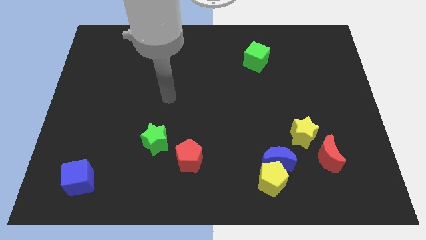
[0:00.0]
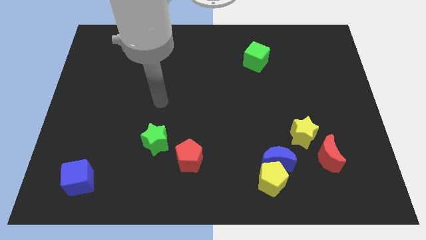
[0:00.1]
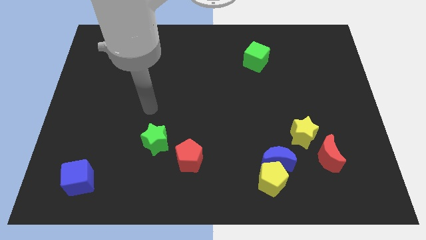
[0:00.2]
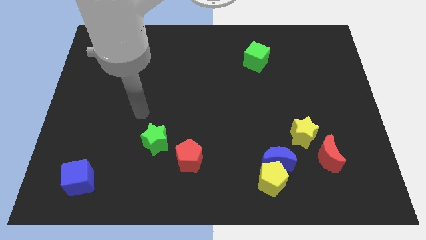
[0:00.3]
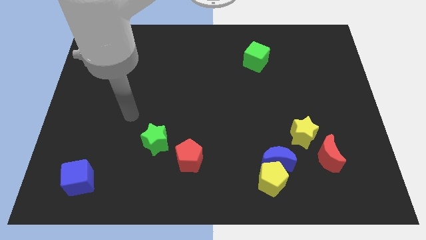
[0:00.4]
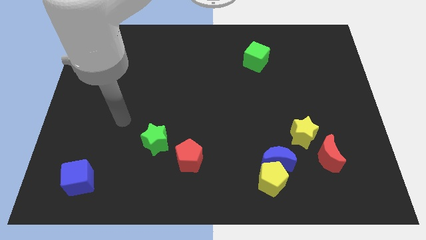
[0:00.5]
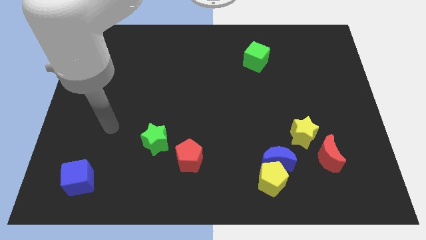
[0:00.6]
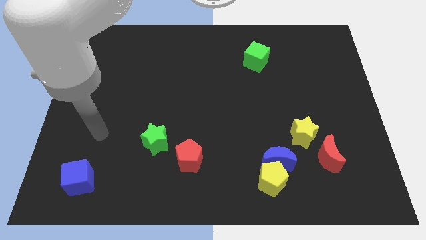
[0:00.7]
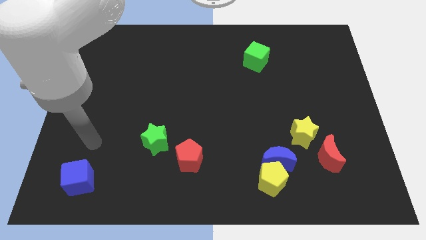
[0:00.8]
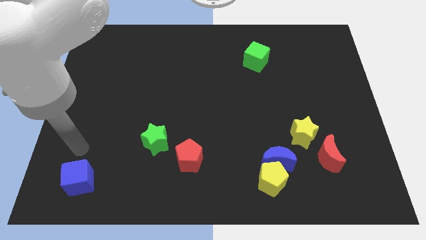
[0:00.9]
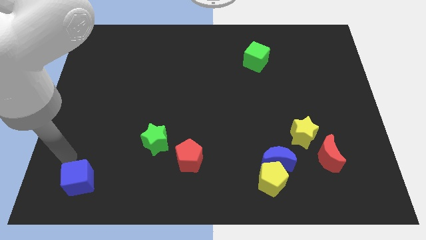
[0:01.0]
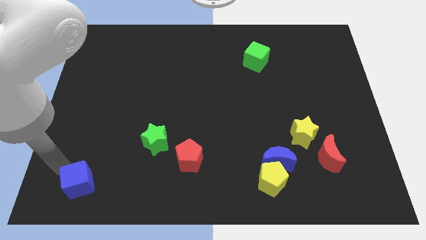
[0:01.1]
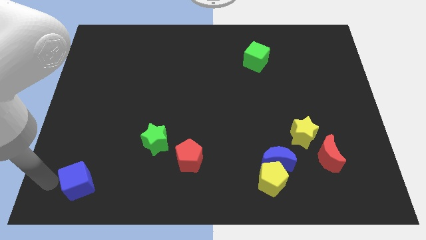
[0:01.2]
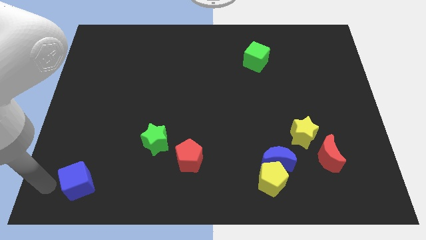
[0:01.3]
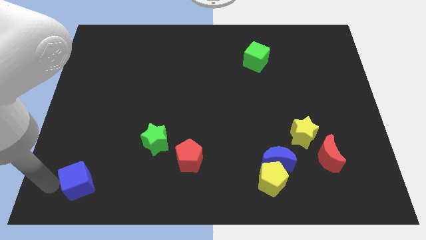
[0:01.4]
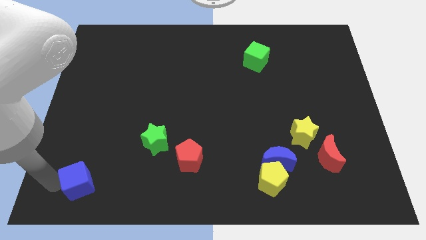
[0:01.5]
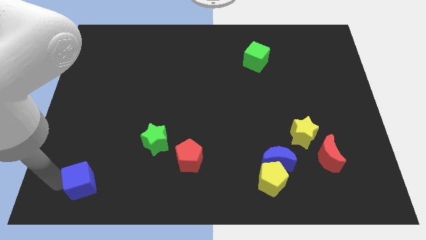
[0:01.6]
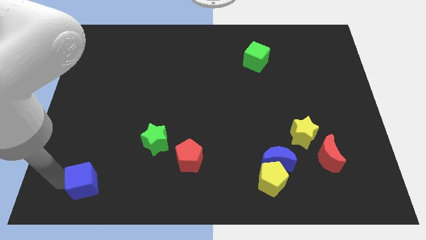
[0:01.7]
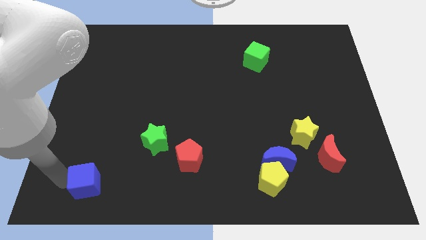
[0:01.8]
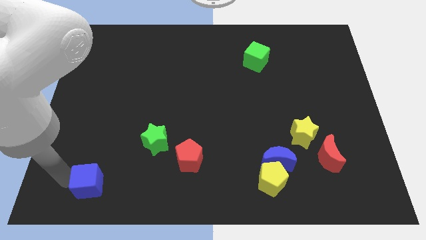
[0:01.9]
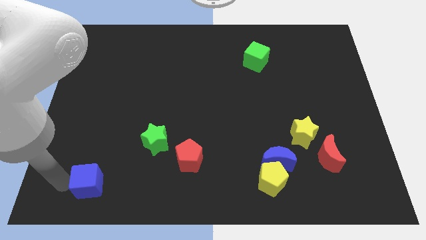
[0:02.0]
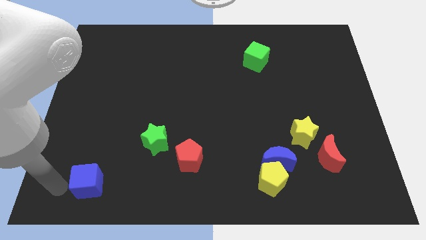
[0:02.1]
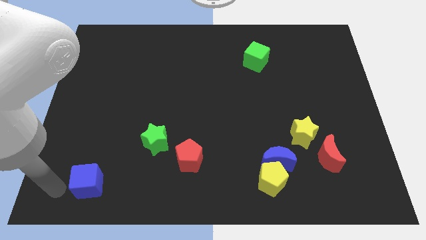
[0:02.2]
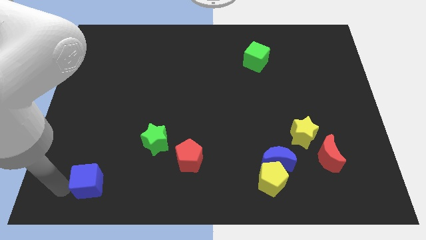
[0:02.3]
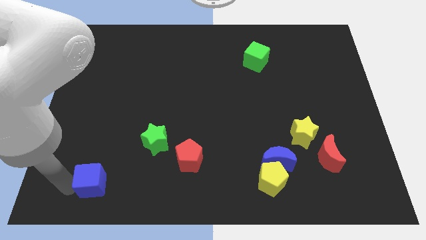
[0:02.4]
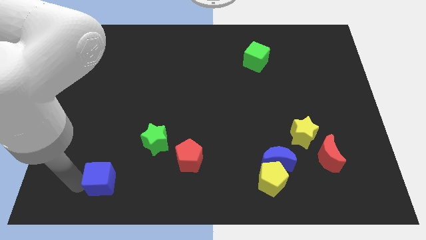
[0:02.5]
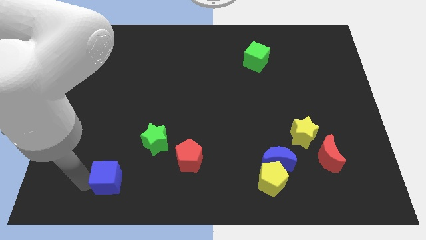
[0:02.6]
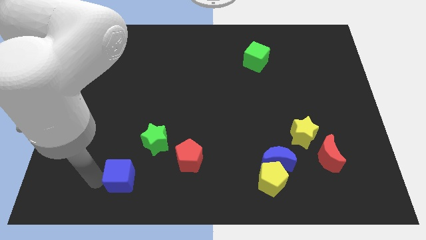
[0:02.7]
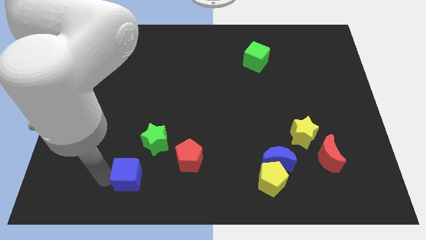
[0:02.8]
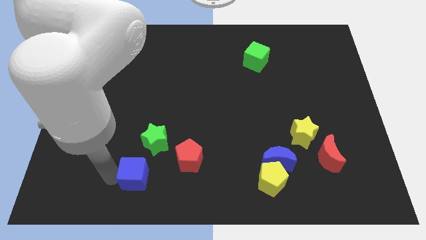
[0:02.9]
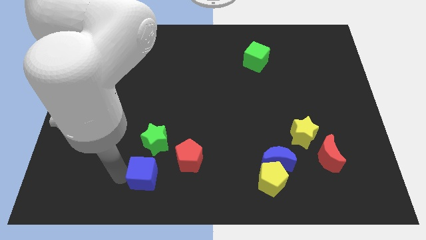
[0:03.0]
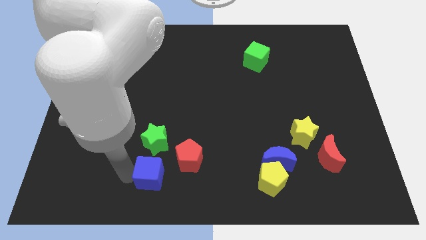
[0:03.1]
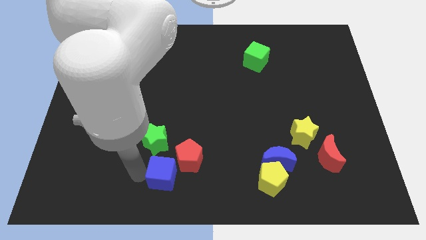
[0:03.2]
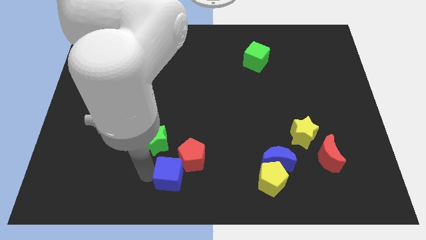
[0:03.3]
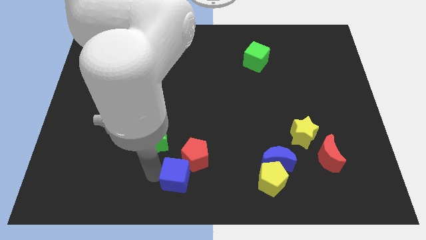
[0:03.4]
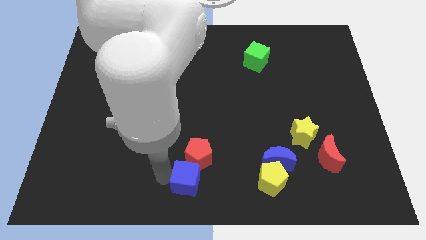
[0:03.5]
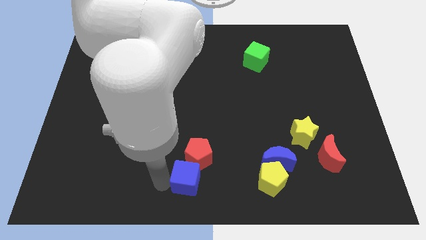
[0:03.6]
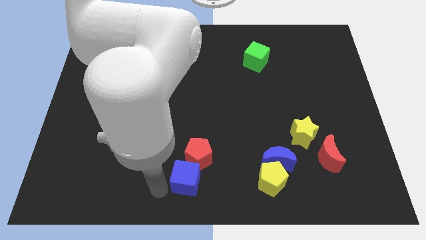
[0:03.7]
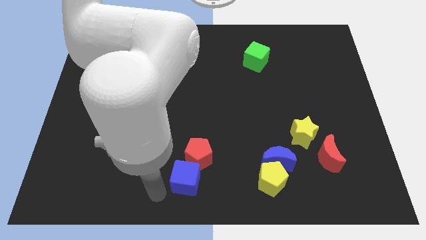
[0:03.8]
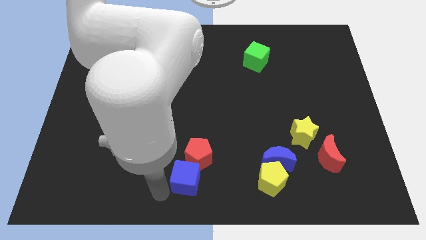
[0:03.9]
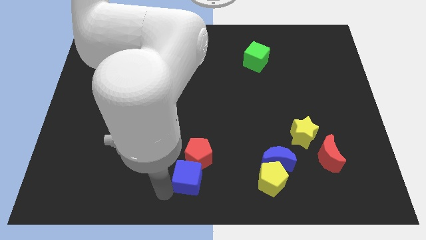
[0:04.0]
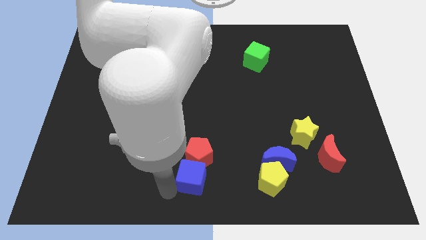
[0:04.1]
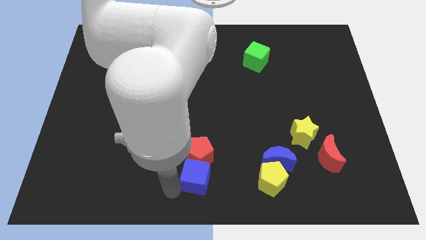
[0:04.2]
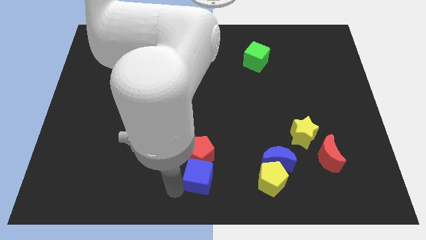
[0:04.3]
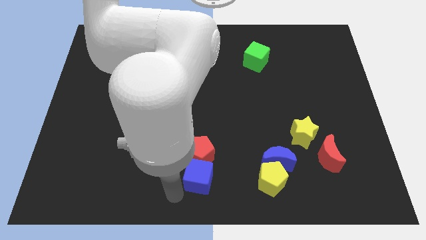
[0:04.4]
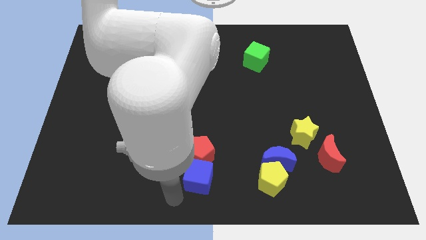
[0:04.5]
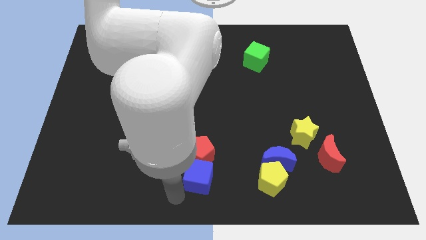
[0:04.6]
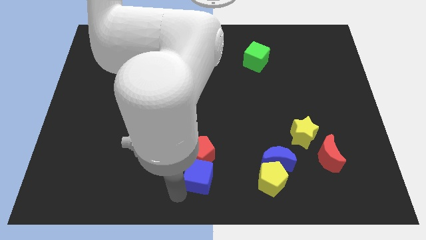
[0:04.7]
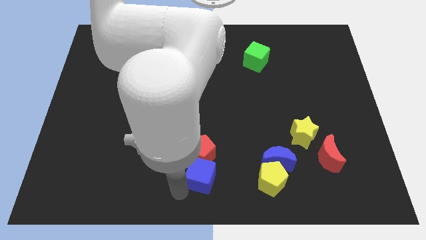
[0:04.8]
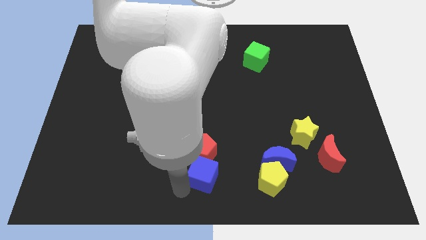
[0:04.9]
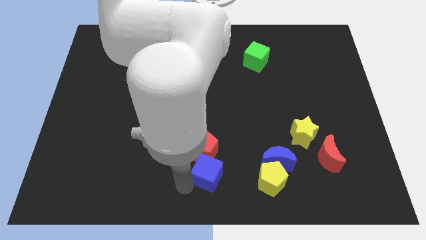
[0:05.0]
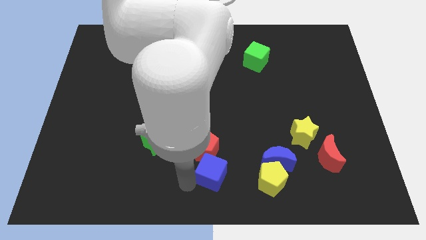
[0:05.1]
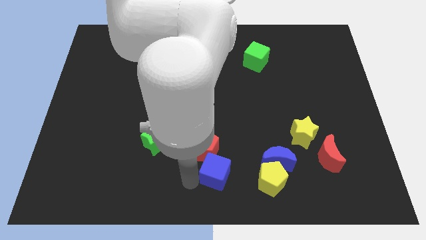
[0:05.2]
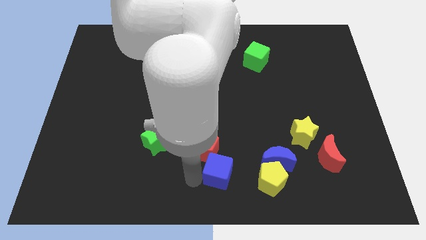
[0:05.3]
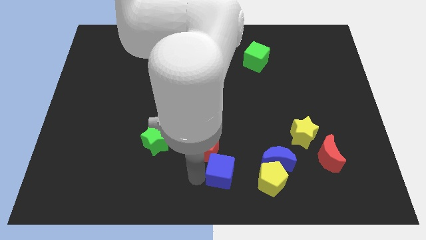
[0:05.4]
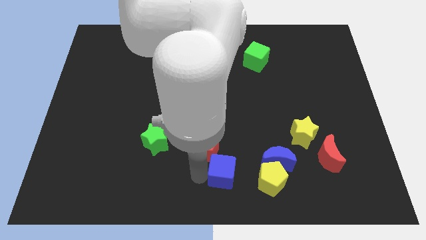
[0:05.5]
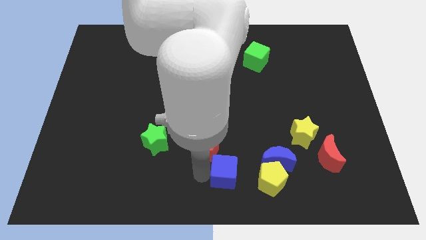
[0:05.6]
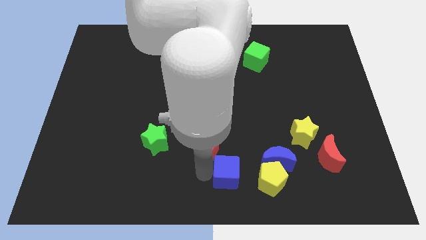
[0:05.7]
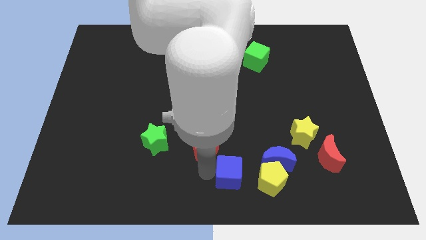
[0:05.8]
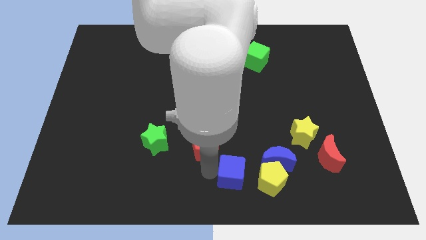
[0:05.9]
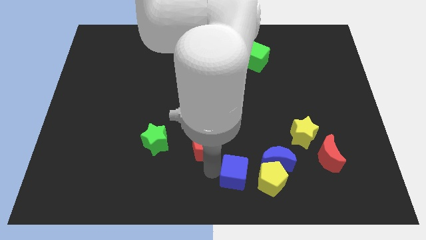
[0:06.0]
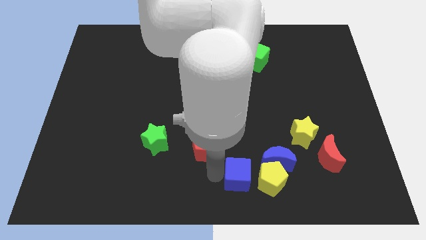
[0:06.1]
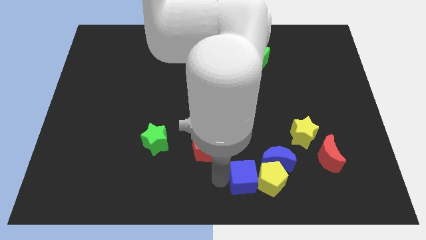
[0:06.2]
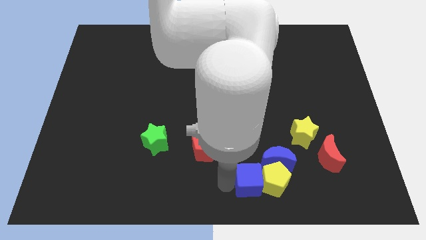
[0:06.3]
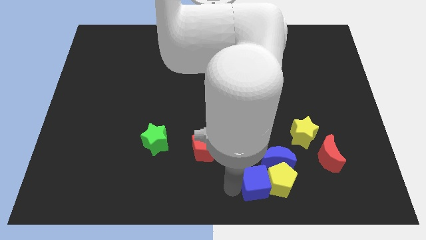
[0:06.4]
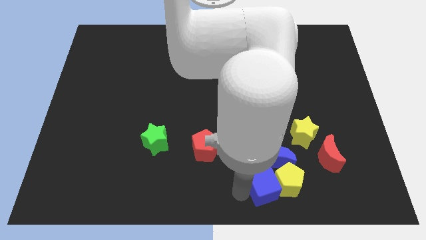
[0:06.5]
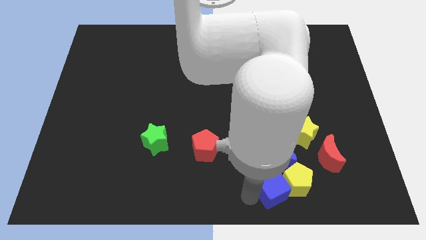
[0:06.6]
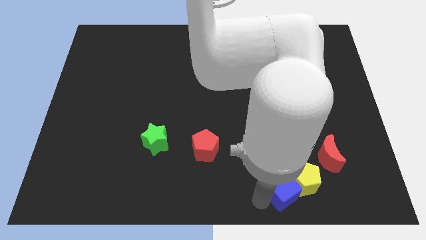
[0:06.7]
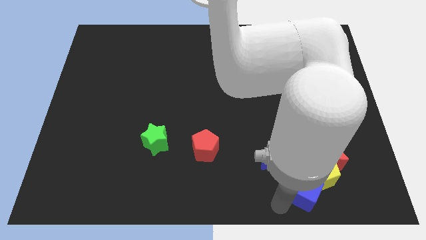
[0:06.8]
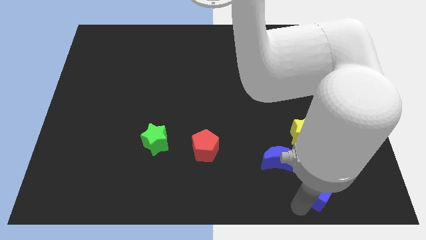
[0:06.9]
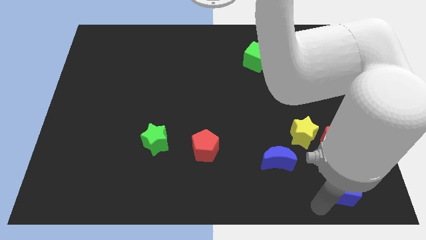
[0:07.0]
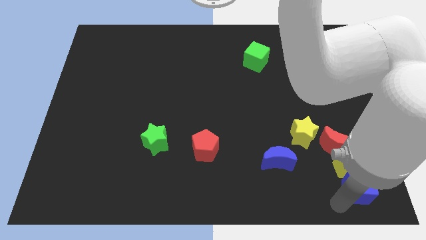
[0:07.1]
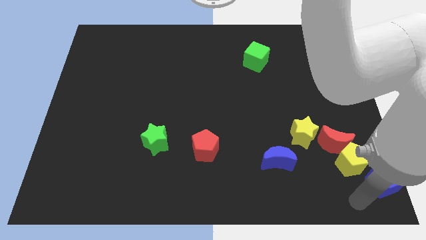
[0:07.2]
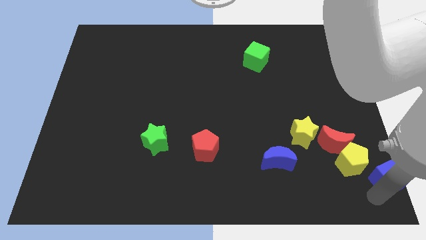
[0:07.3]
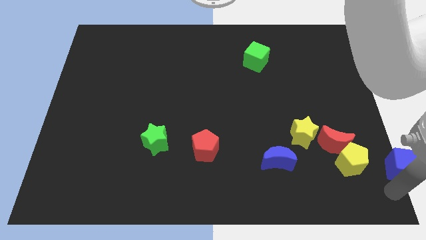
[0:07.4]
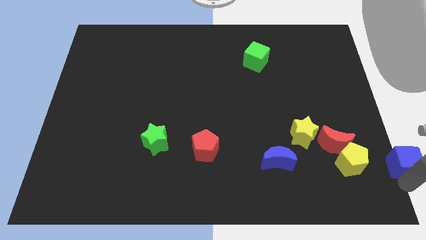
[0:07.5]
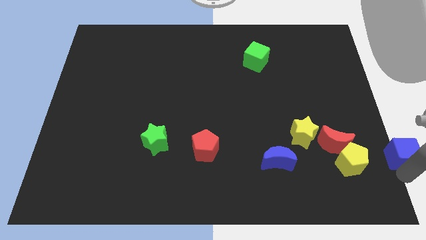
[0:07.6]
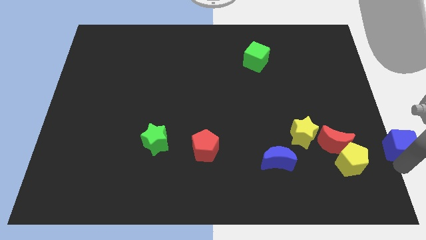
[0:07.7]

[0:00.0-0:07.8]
push the blue cube to the right side of the board
